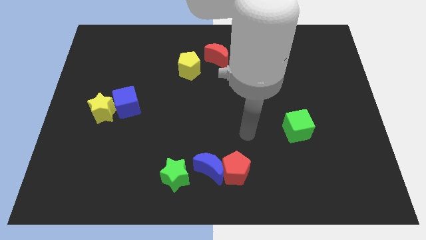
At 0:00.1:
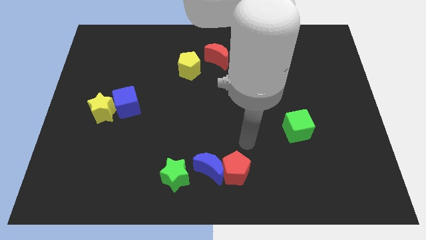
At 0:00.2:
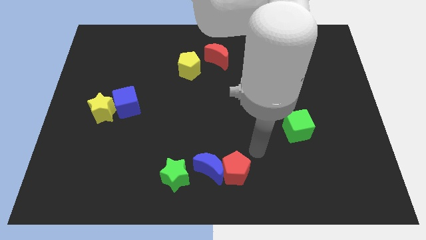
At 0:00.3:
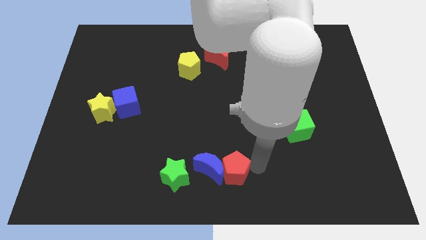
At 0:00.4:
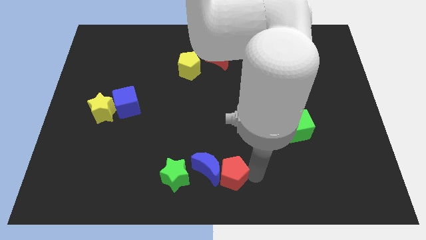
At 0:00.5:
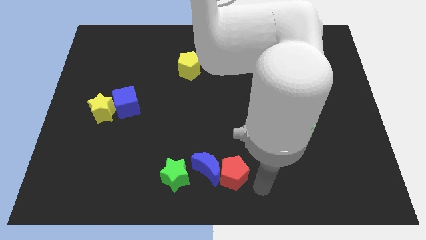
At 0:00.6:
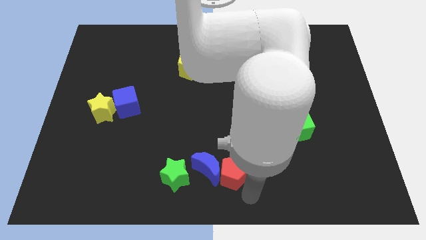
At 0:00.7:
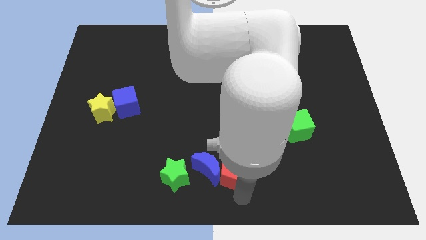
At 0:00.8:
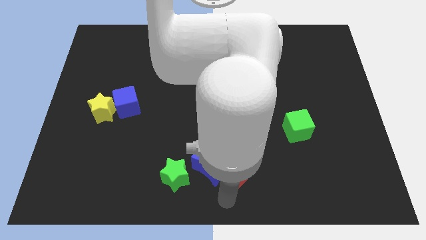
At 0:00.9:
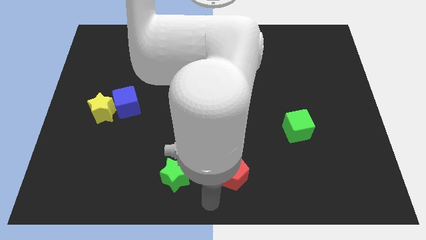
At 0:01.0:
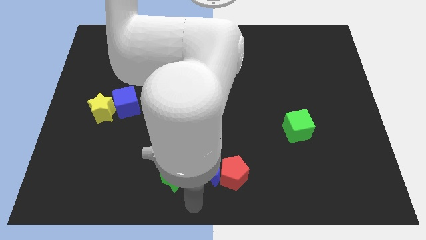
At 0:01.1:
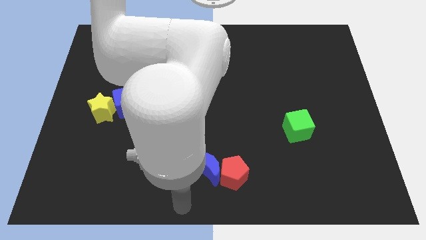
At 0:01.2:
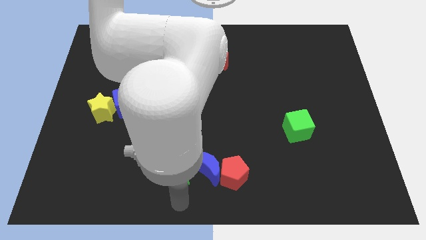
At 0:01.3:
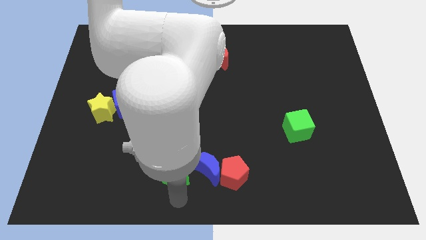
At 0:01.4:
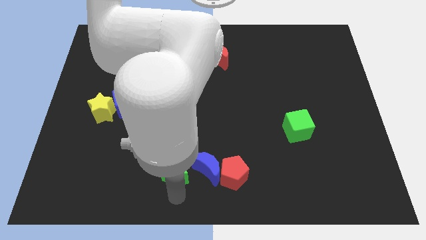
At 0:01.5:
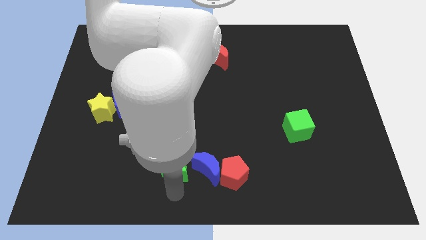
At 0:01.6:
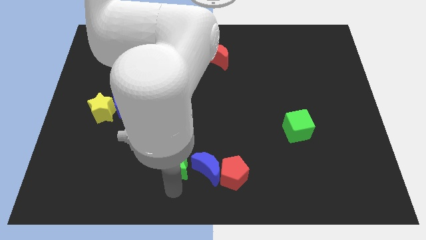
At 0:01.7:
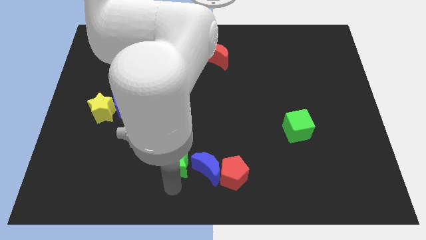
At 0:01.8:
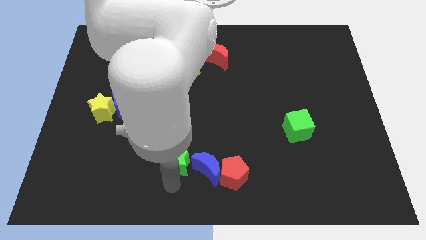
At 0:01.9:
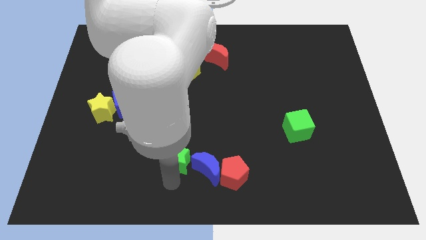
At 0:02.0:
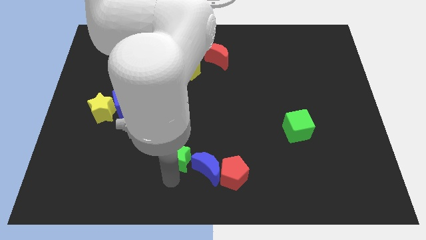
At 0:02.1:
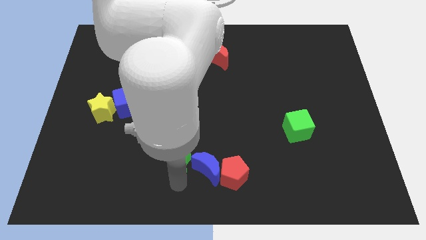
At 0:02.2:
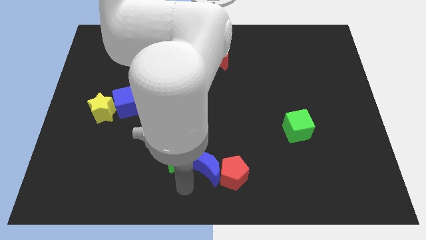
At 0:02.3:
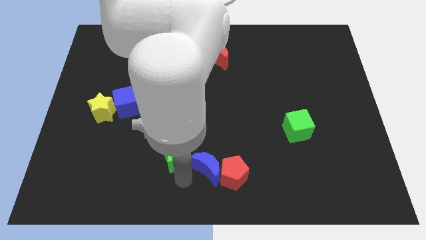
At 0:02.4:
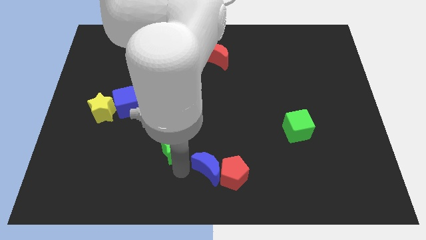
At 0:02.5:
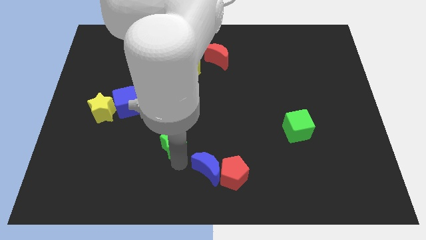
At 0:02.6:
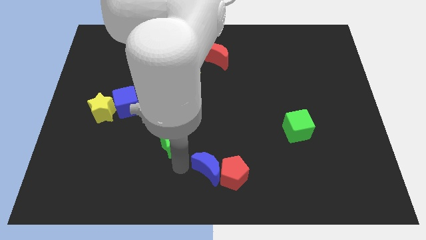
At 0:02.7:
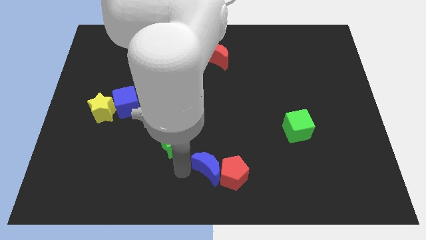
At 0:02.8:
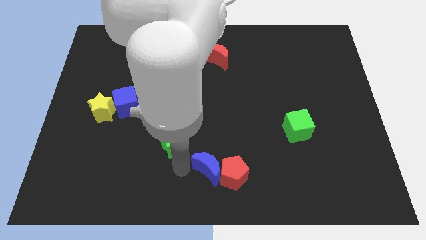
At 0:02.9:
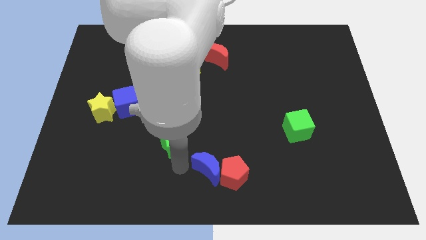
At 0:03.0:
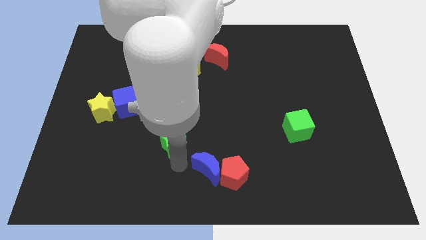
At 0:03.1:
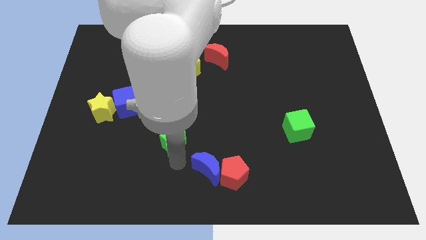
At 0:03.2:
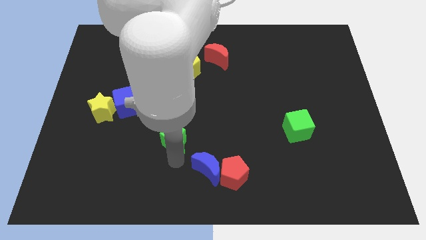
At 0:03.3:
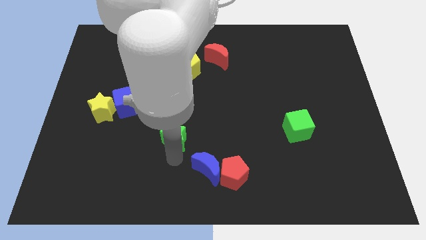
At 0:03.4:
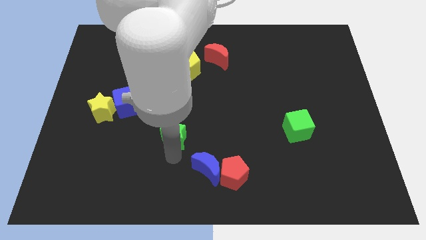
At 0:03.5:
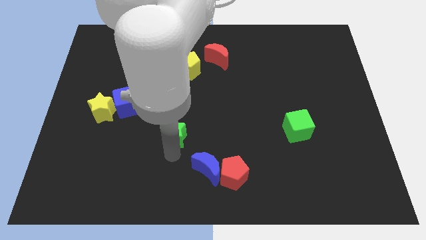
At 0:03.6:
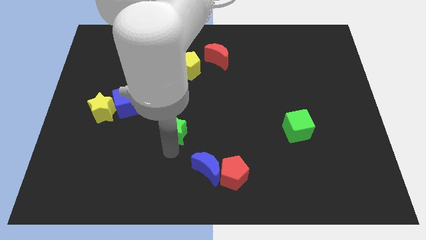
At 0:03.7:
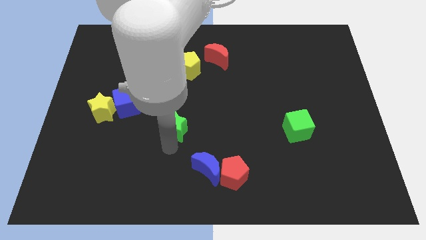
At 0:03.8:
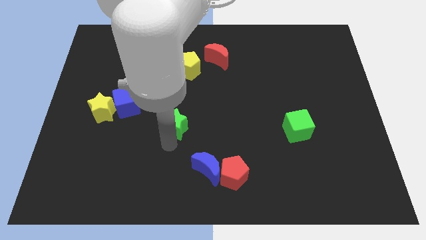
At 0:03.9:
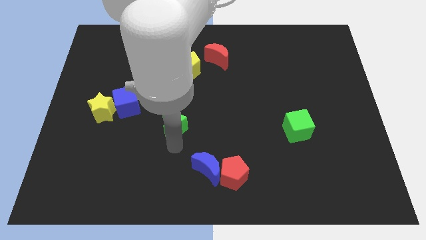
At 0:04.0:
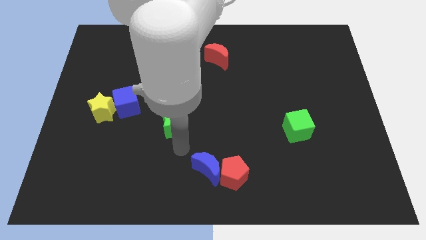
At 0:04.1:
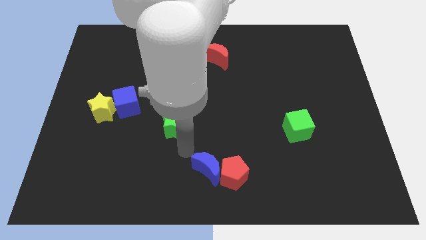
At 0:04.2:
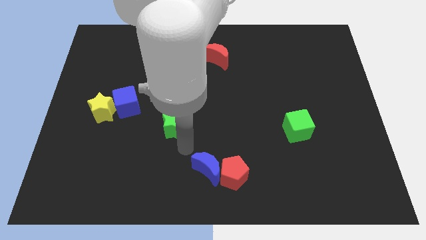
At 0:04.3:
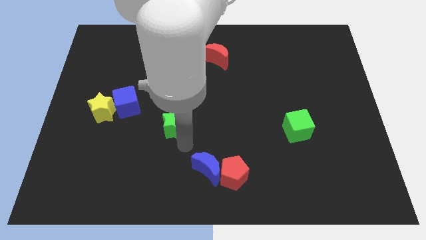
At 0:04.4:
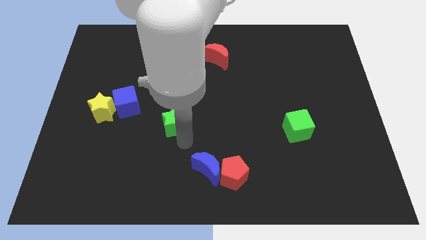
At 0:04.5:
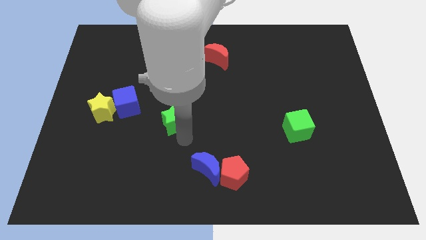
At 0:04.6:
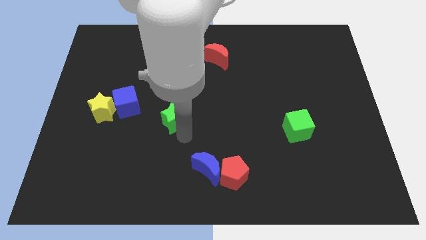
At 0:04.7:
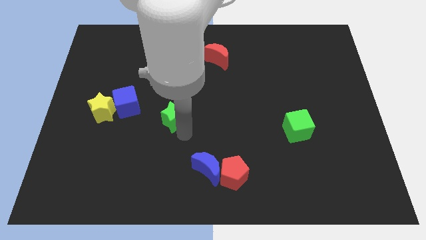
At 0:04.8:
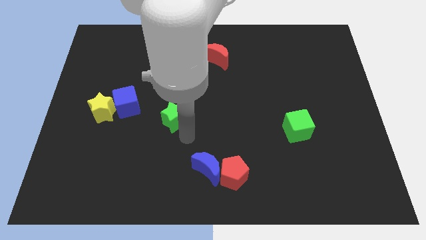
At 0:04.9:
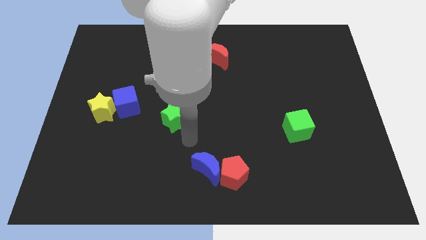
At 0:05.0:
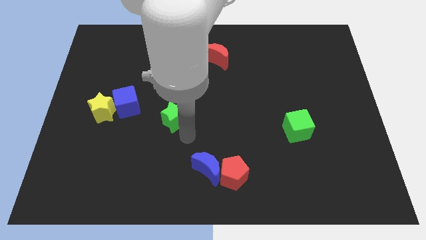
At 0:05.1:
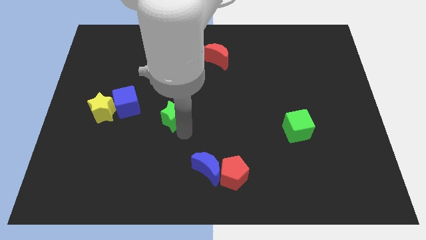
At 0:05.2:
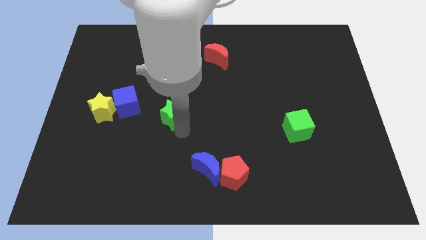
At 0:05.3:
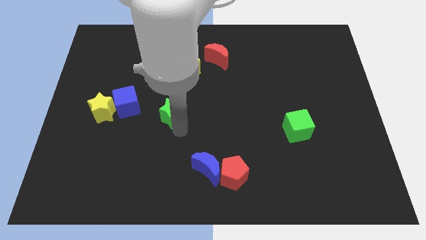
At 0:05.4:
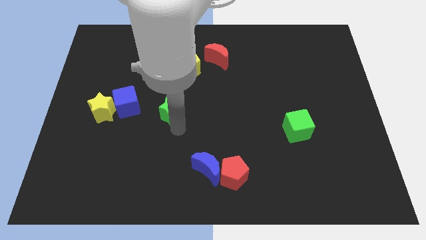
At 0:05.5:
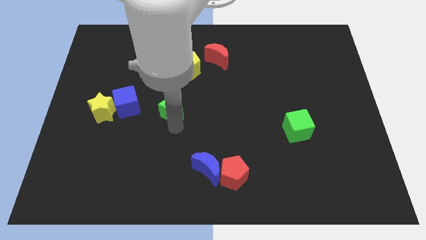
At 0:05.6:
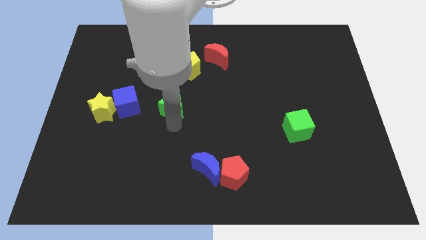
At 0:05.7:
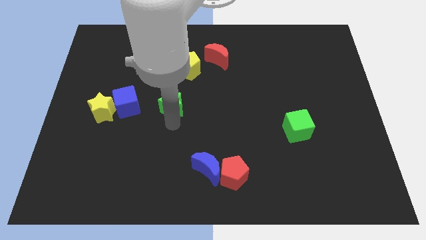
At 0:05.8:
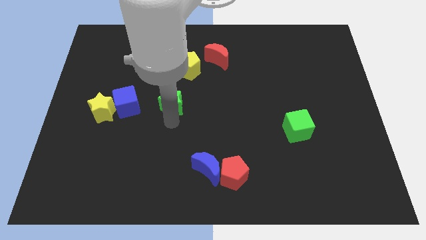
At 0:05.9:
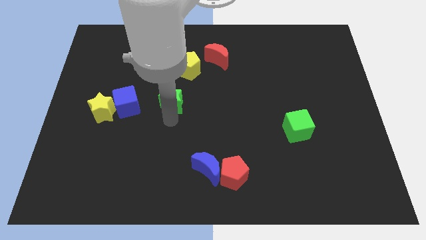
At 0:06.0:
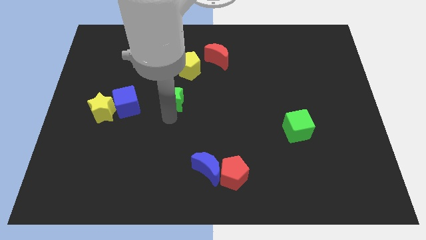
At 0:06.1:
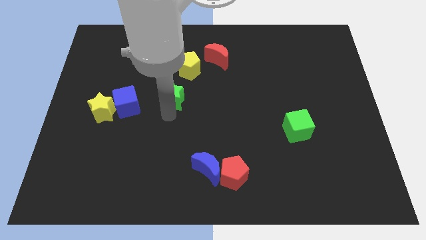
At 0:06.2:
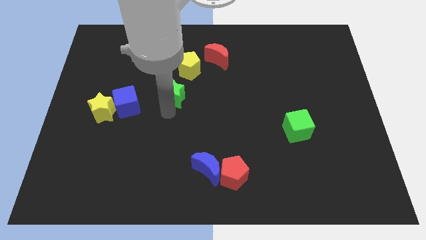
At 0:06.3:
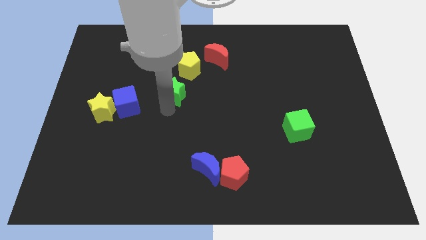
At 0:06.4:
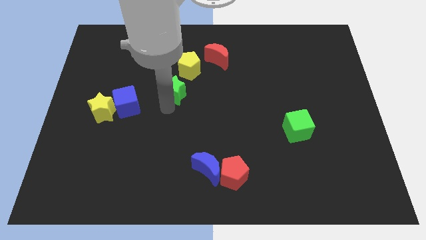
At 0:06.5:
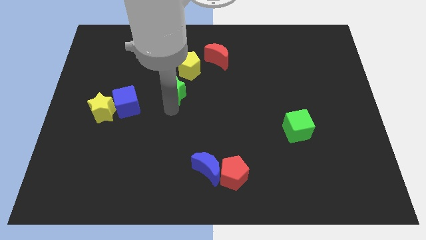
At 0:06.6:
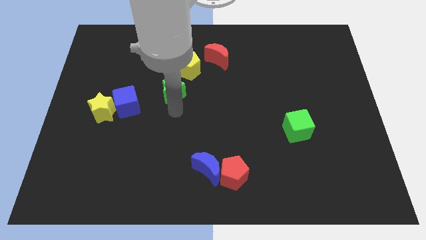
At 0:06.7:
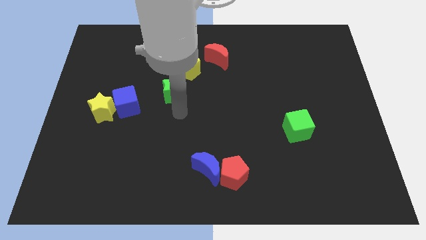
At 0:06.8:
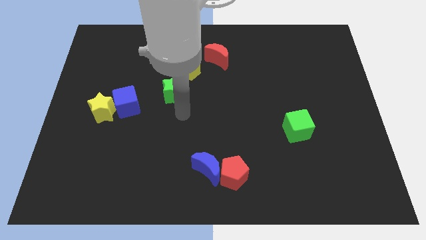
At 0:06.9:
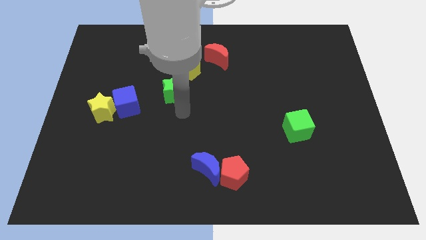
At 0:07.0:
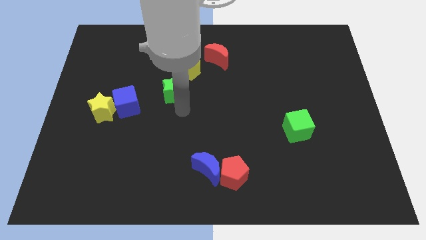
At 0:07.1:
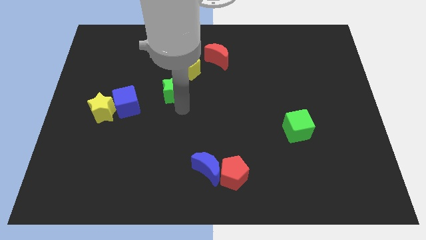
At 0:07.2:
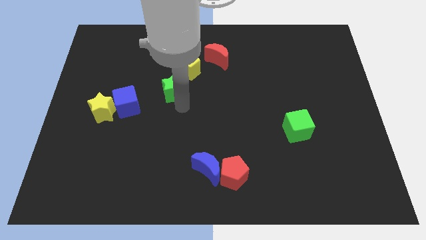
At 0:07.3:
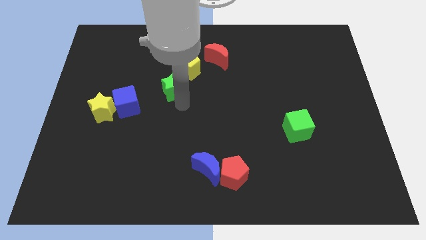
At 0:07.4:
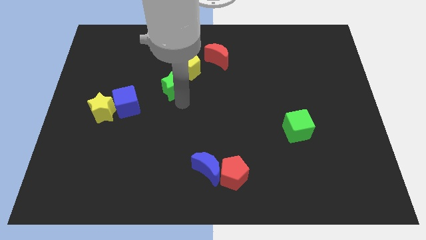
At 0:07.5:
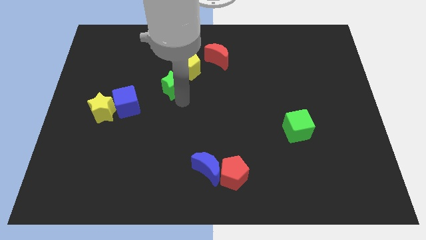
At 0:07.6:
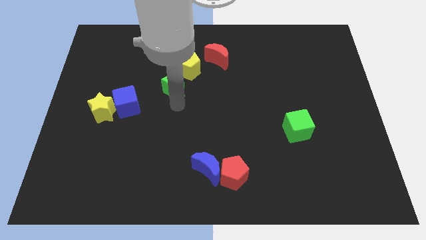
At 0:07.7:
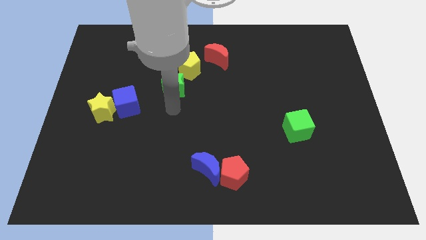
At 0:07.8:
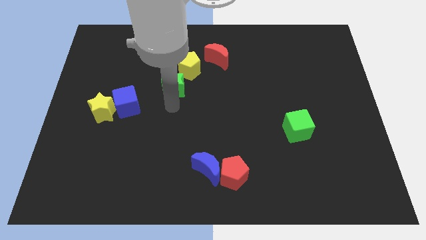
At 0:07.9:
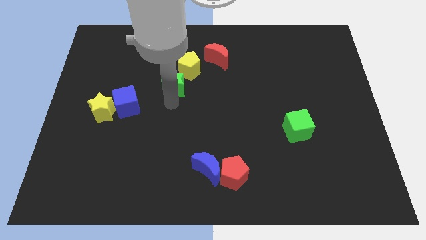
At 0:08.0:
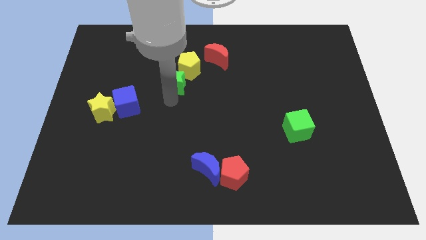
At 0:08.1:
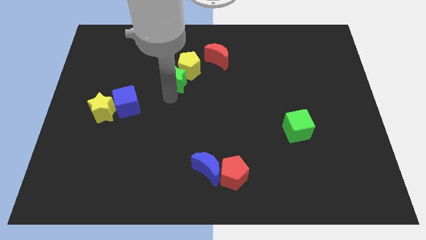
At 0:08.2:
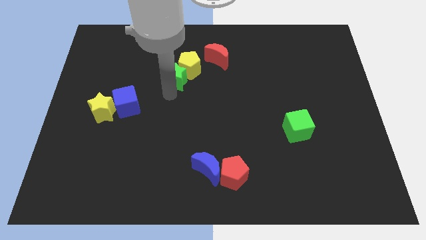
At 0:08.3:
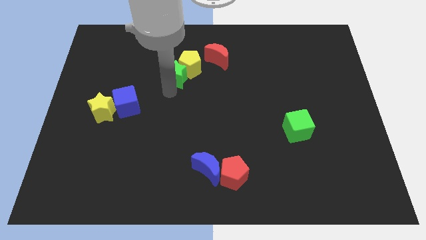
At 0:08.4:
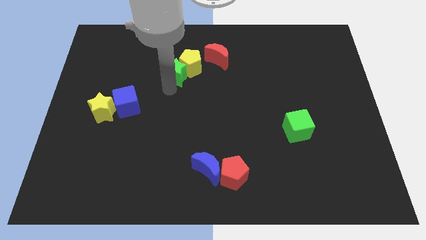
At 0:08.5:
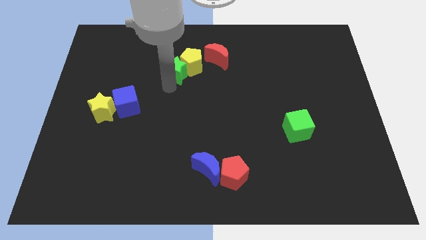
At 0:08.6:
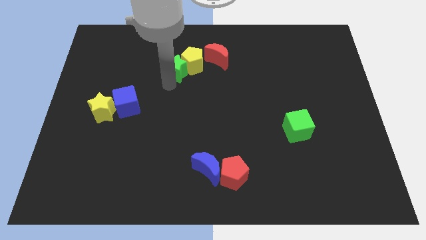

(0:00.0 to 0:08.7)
slide the green star just left of the red moon
